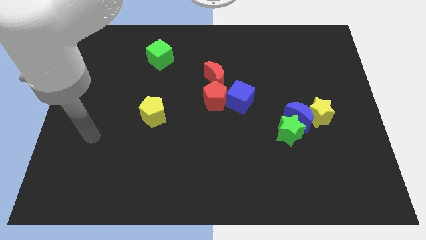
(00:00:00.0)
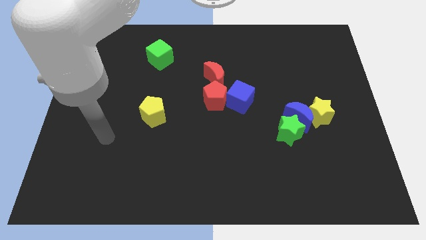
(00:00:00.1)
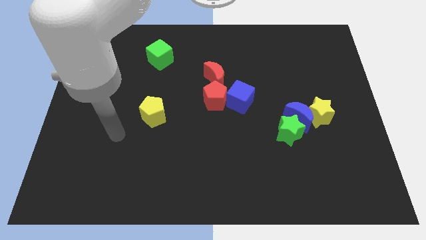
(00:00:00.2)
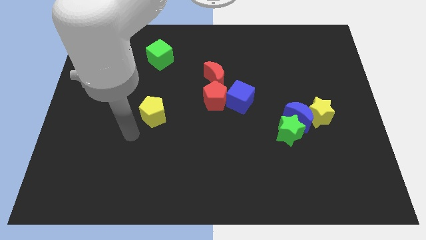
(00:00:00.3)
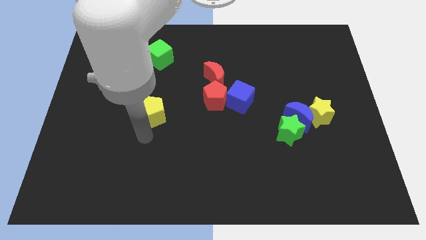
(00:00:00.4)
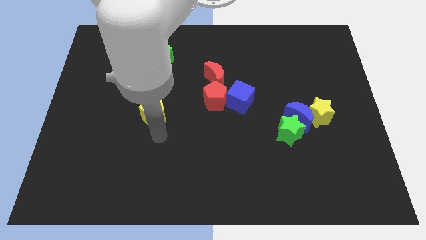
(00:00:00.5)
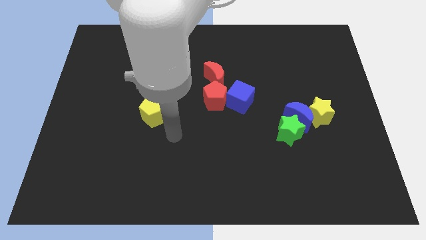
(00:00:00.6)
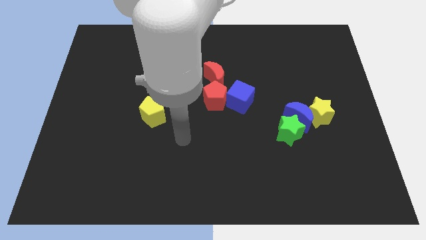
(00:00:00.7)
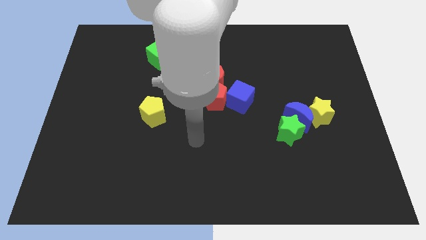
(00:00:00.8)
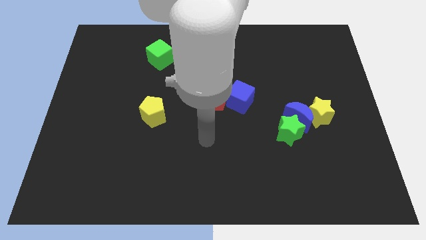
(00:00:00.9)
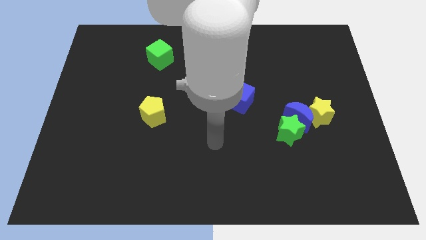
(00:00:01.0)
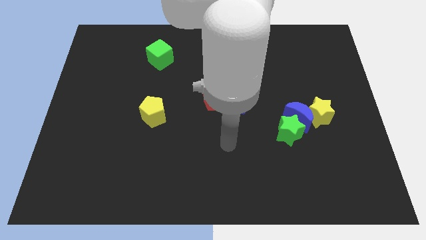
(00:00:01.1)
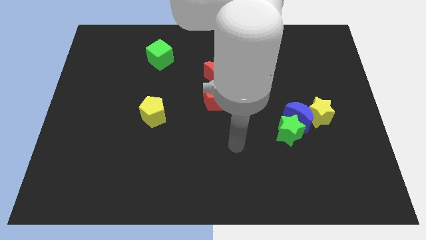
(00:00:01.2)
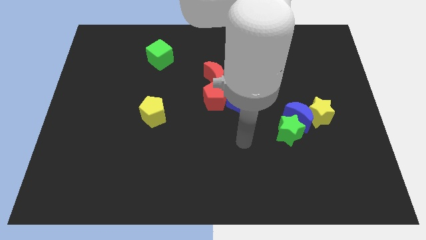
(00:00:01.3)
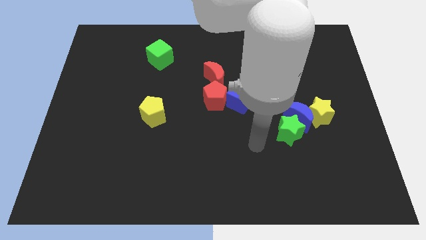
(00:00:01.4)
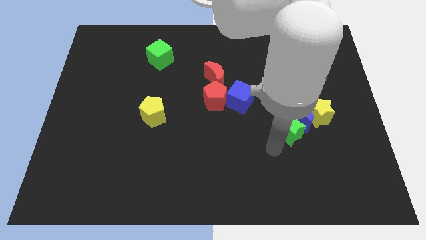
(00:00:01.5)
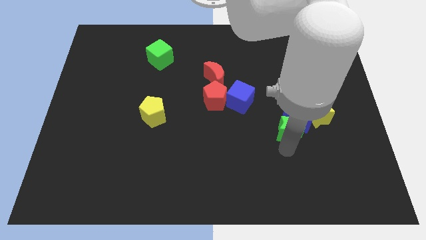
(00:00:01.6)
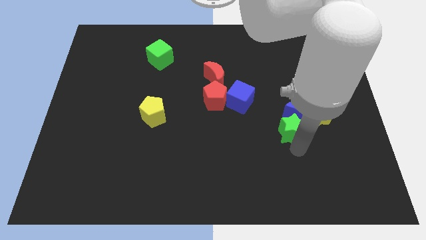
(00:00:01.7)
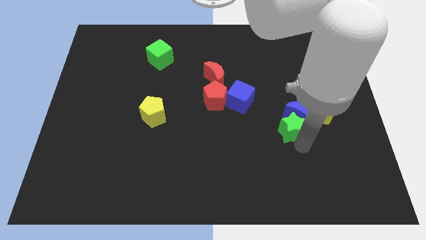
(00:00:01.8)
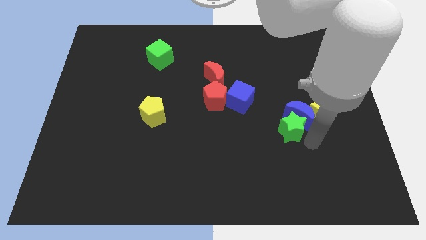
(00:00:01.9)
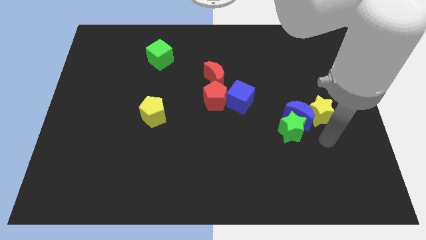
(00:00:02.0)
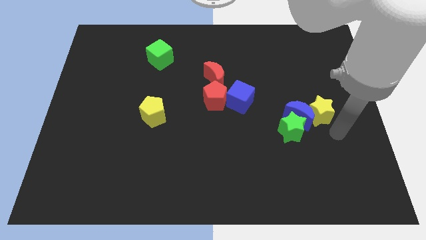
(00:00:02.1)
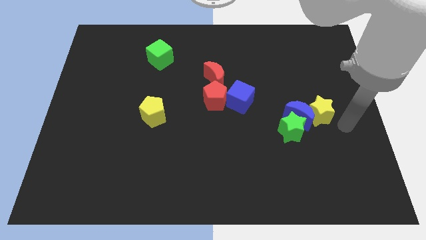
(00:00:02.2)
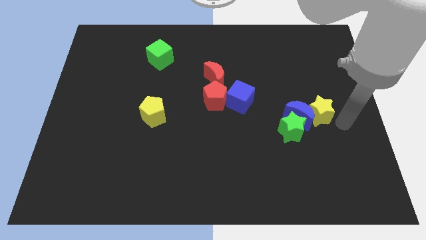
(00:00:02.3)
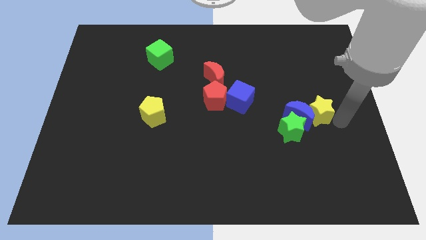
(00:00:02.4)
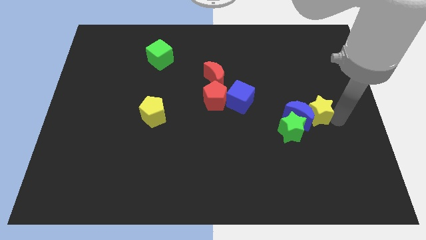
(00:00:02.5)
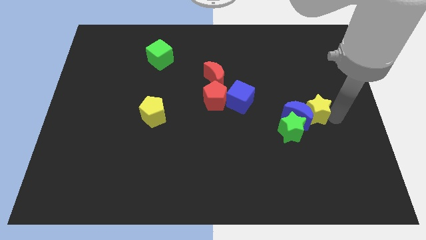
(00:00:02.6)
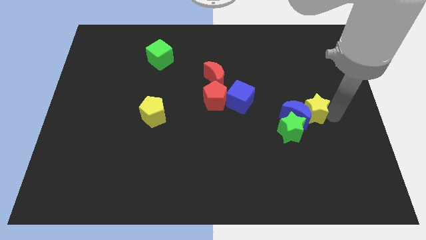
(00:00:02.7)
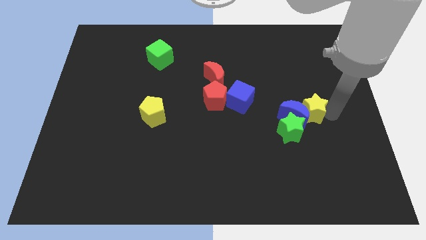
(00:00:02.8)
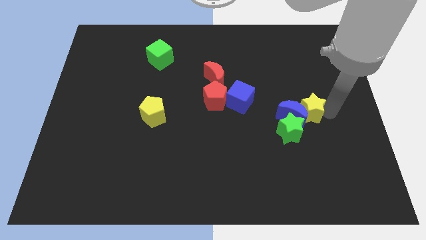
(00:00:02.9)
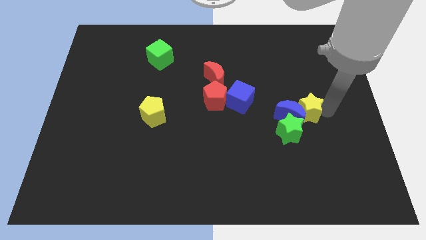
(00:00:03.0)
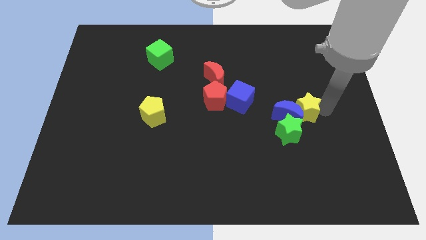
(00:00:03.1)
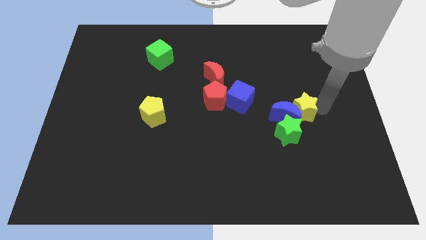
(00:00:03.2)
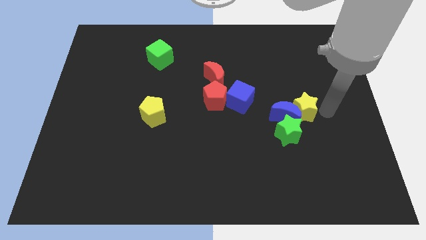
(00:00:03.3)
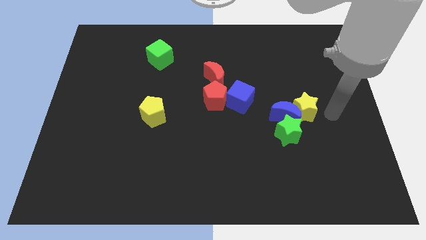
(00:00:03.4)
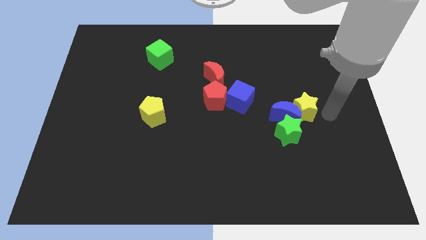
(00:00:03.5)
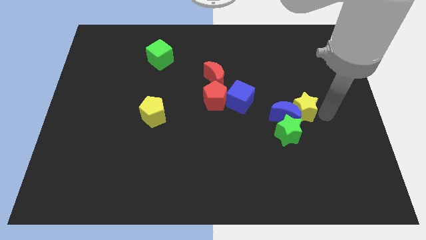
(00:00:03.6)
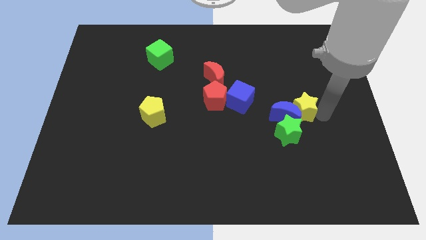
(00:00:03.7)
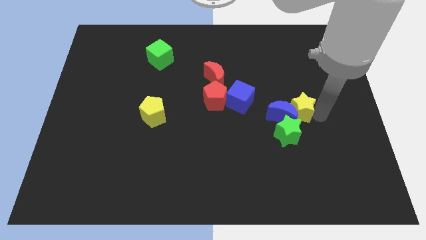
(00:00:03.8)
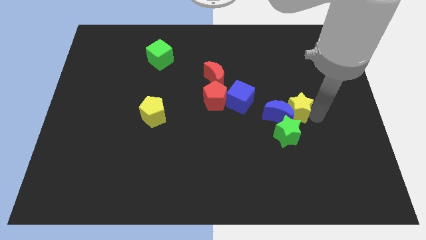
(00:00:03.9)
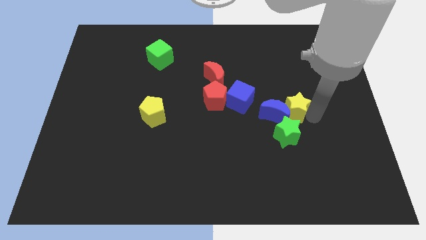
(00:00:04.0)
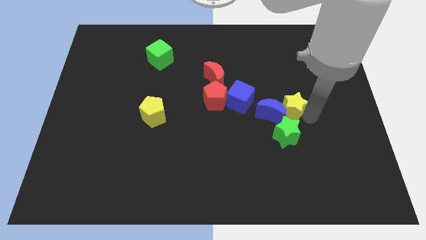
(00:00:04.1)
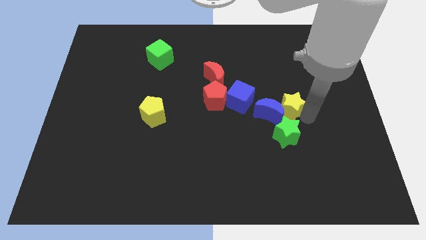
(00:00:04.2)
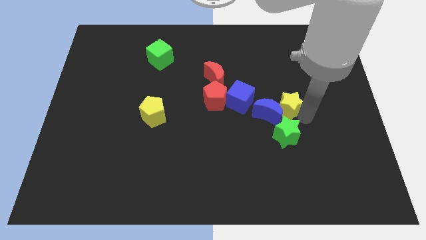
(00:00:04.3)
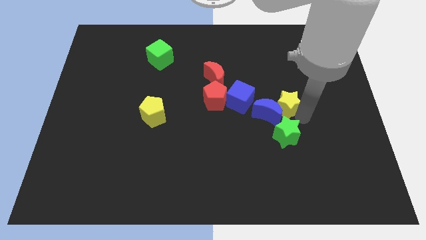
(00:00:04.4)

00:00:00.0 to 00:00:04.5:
push the yellow star left a bit

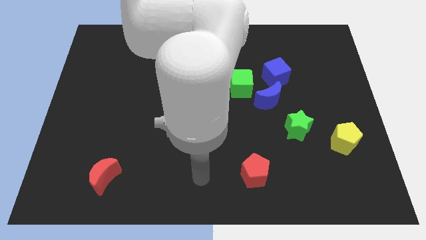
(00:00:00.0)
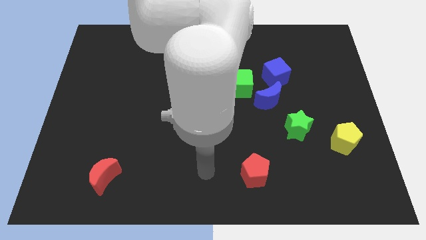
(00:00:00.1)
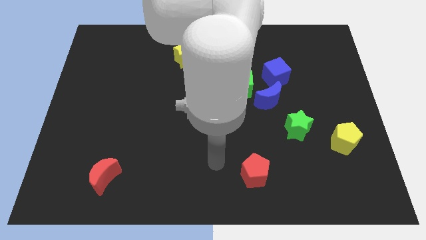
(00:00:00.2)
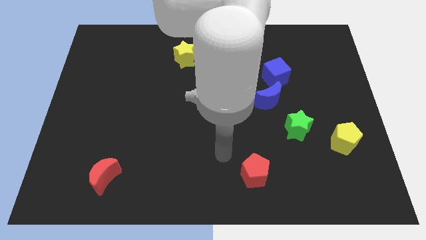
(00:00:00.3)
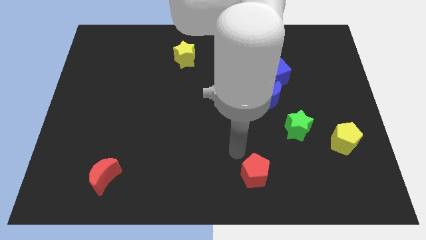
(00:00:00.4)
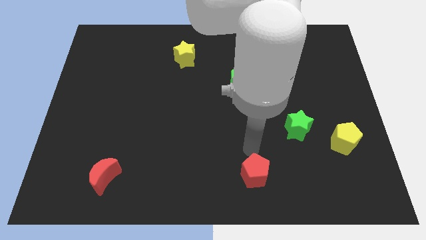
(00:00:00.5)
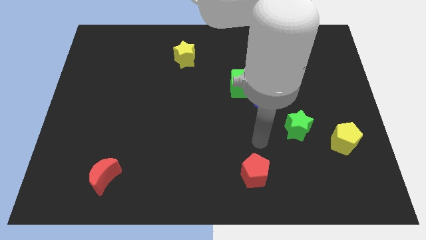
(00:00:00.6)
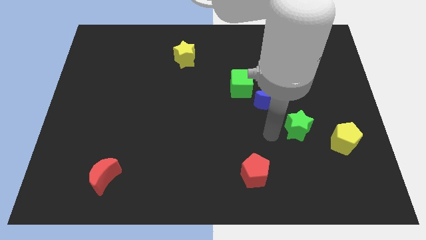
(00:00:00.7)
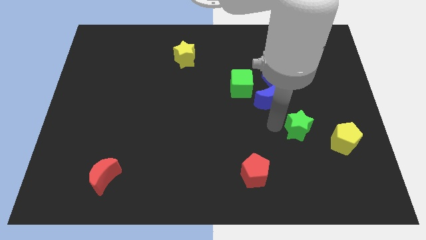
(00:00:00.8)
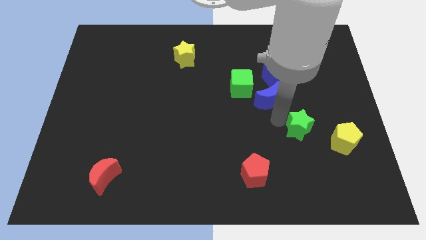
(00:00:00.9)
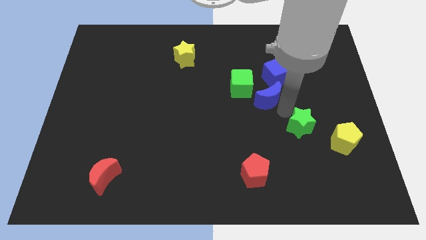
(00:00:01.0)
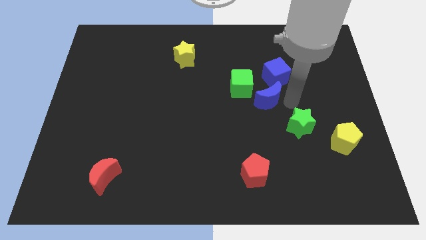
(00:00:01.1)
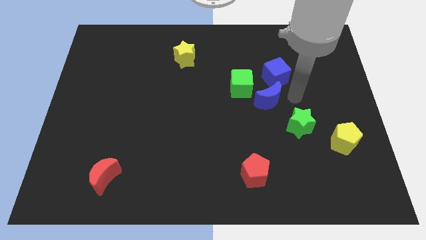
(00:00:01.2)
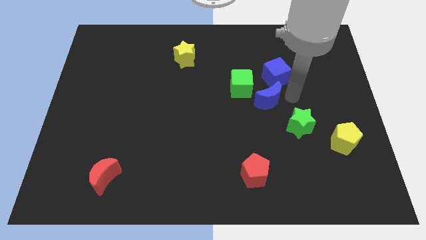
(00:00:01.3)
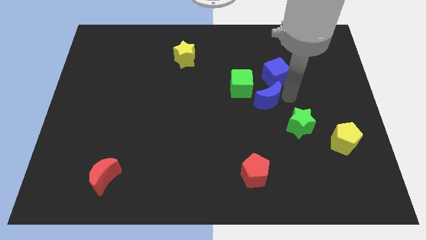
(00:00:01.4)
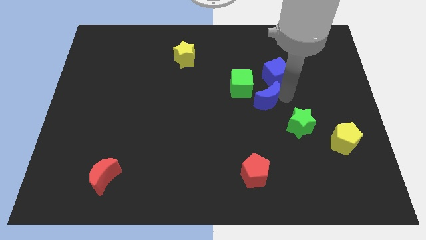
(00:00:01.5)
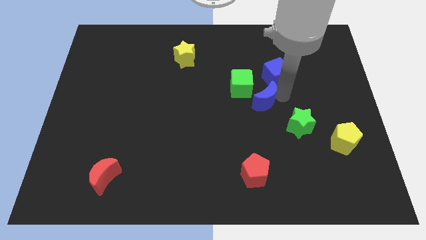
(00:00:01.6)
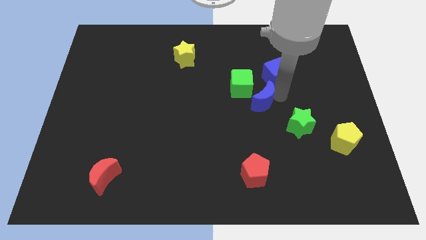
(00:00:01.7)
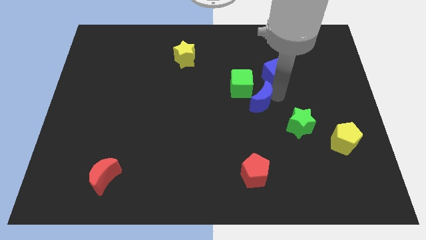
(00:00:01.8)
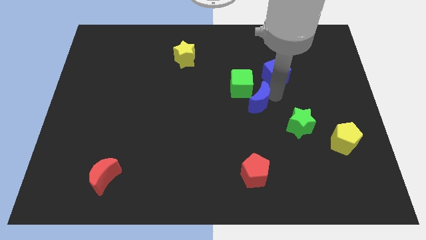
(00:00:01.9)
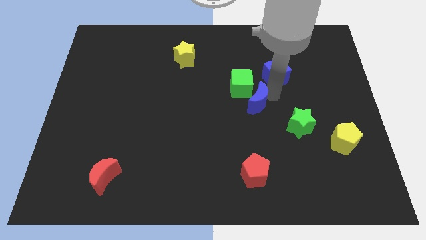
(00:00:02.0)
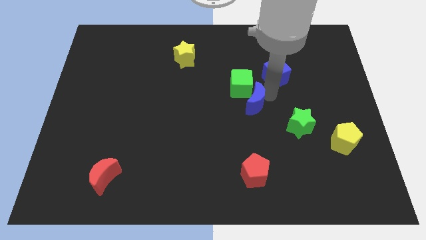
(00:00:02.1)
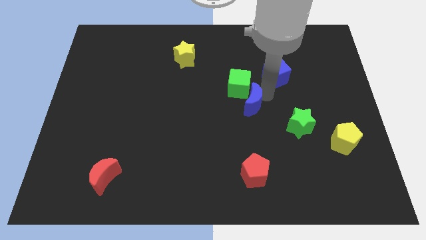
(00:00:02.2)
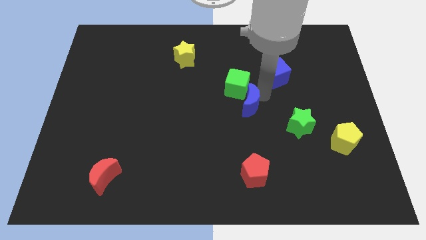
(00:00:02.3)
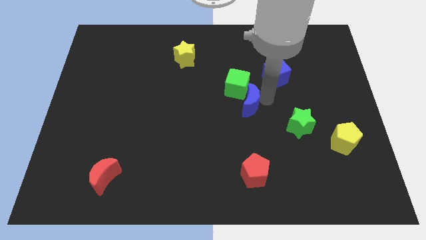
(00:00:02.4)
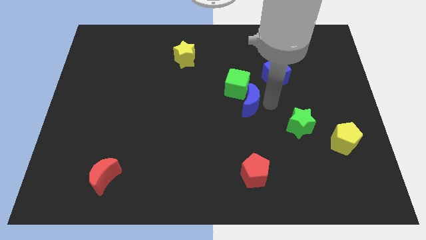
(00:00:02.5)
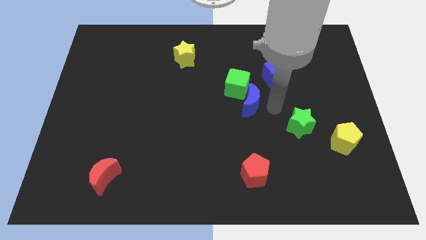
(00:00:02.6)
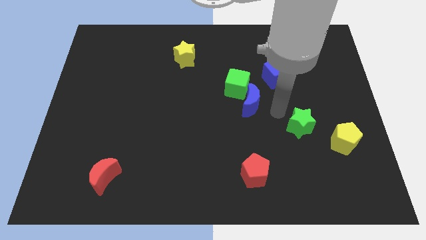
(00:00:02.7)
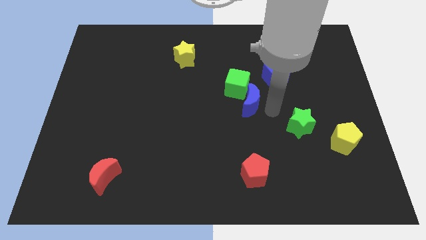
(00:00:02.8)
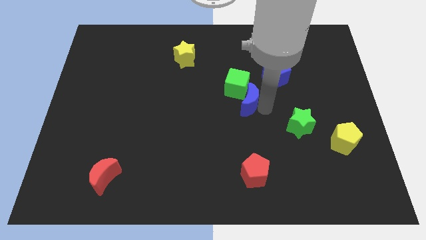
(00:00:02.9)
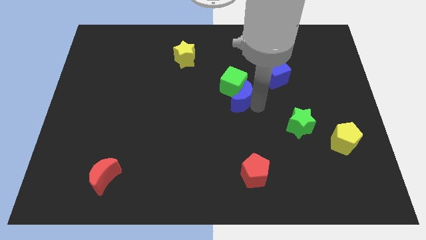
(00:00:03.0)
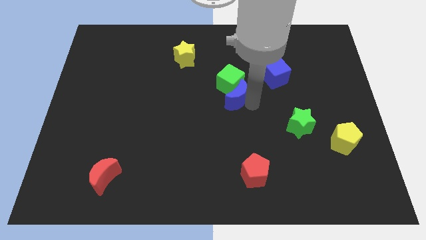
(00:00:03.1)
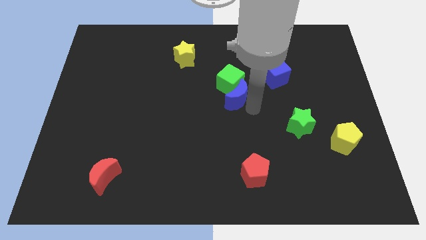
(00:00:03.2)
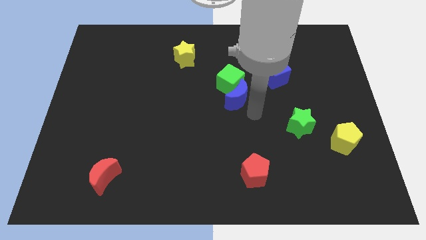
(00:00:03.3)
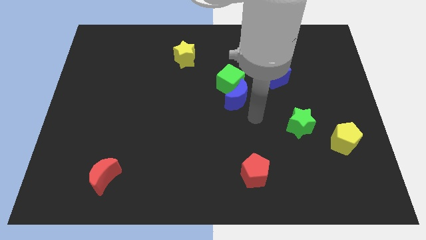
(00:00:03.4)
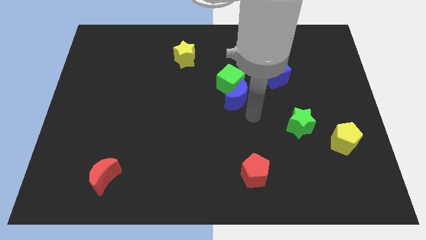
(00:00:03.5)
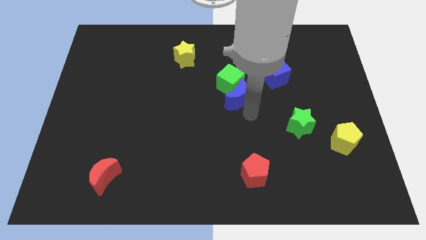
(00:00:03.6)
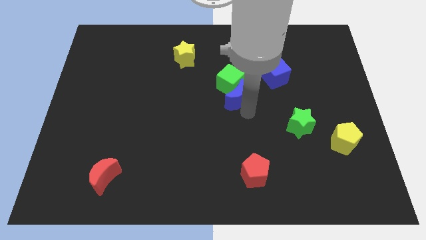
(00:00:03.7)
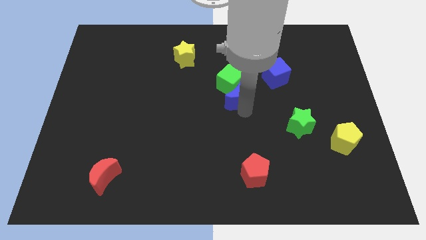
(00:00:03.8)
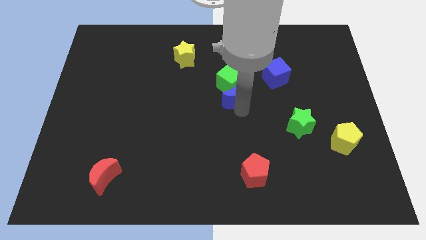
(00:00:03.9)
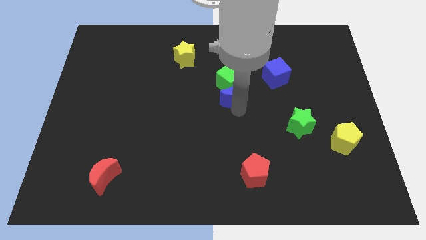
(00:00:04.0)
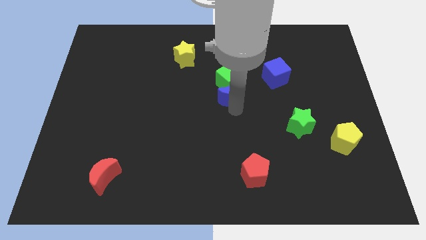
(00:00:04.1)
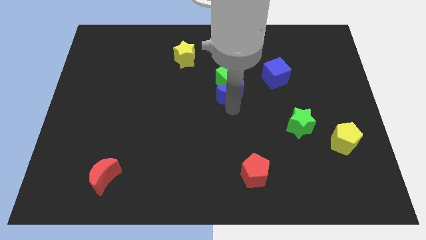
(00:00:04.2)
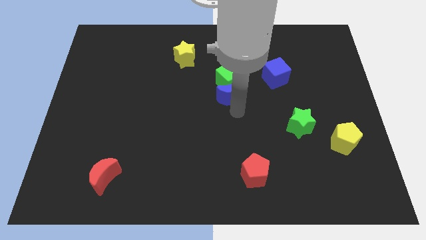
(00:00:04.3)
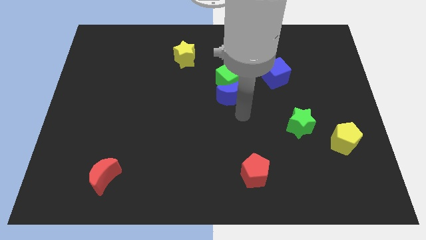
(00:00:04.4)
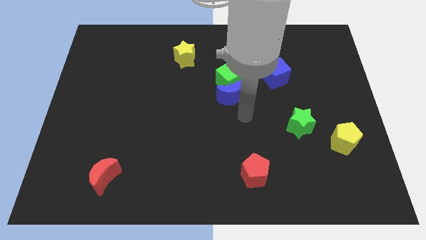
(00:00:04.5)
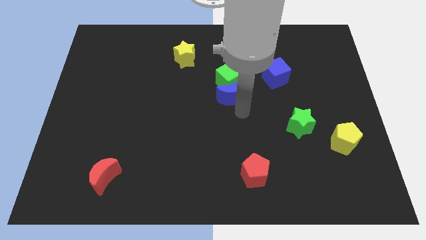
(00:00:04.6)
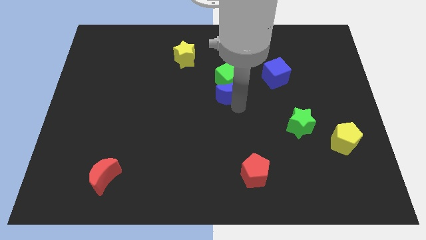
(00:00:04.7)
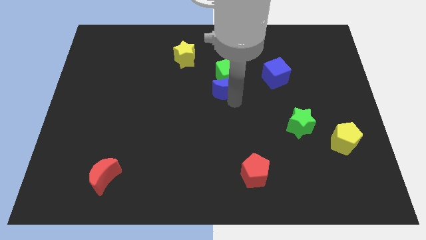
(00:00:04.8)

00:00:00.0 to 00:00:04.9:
move the blue moon up and left diagonally a little
